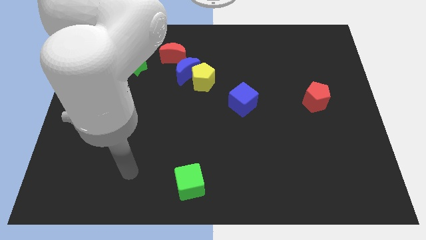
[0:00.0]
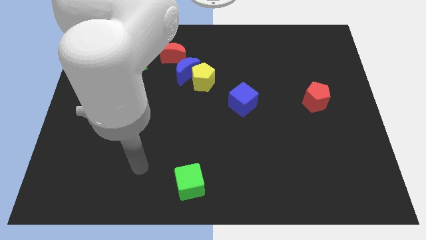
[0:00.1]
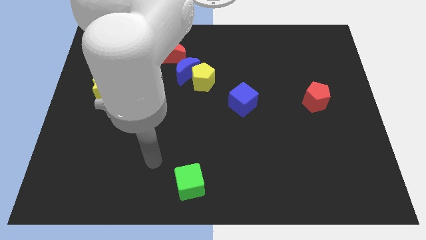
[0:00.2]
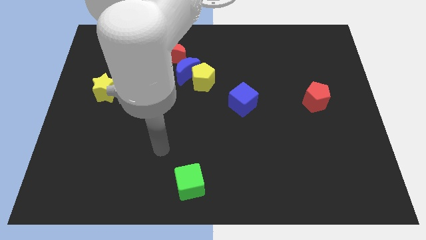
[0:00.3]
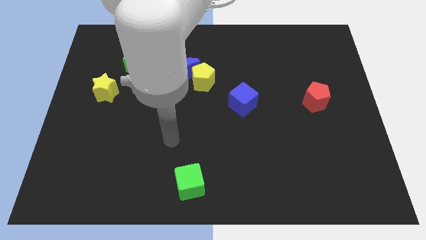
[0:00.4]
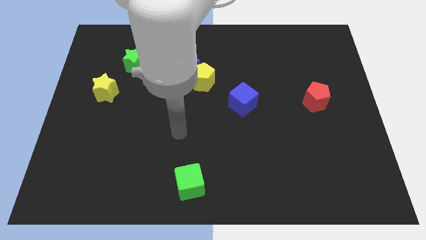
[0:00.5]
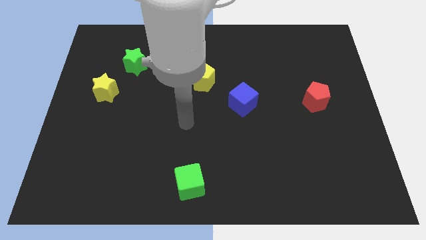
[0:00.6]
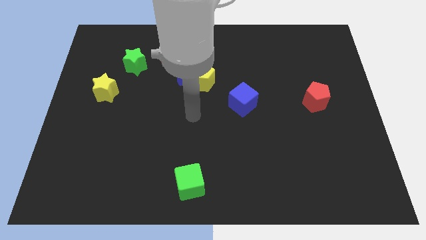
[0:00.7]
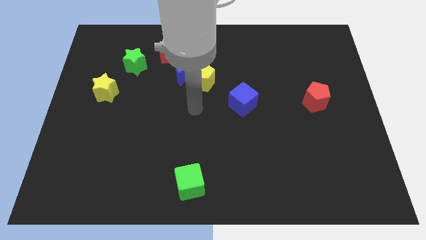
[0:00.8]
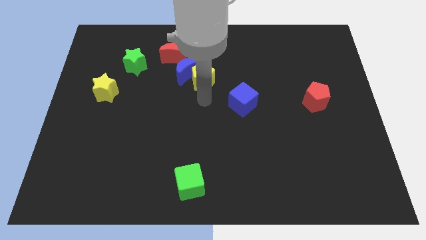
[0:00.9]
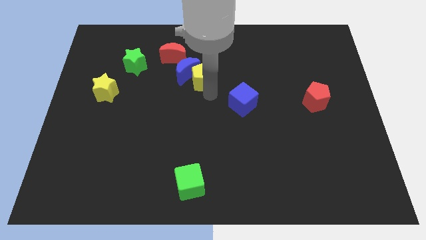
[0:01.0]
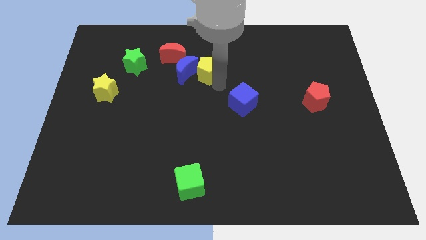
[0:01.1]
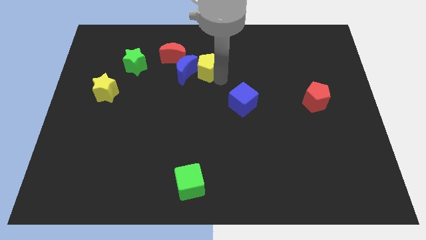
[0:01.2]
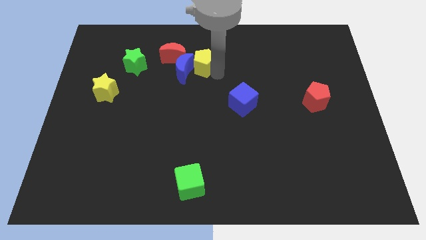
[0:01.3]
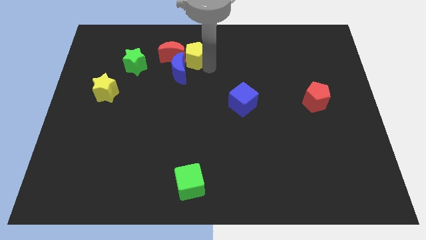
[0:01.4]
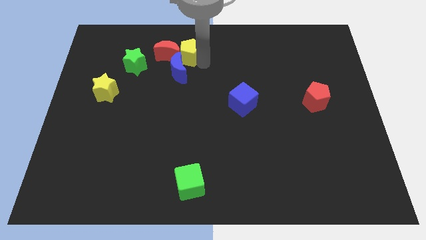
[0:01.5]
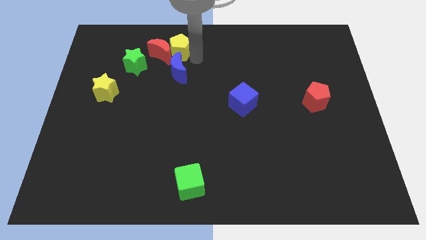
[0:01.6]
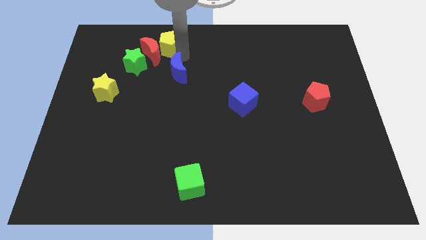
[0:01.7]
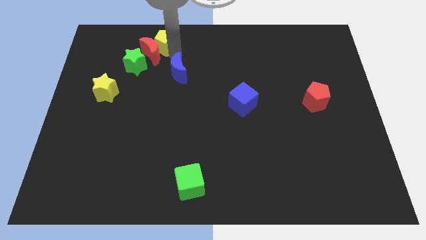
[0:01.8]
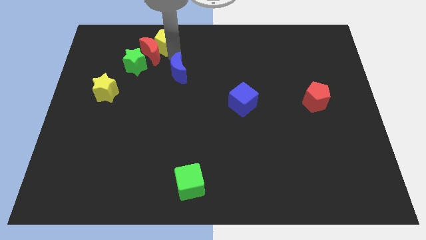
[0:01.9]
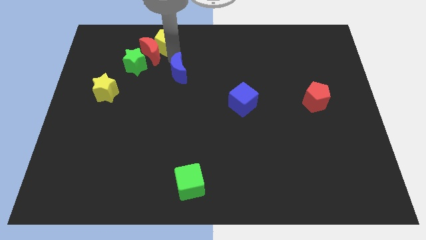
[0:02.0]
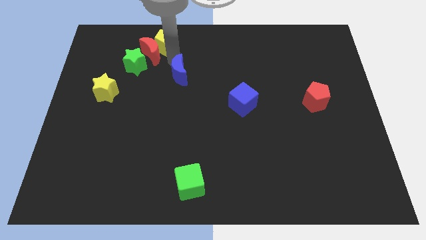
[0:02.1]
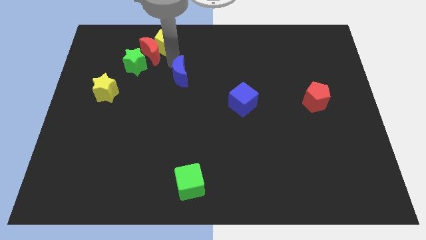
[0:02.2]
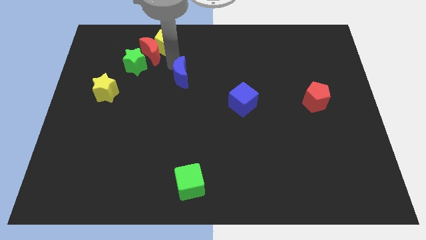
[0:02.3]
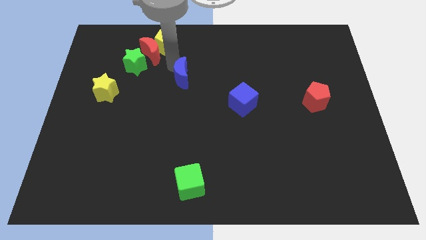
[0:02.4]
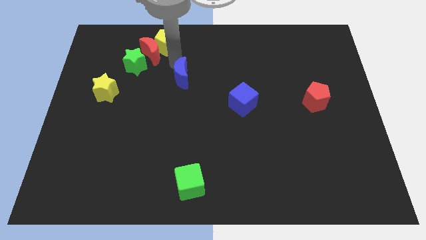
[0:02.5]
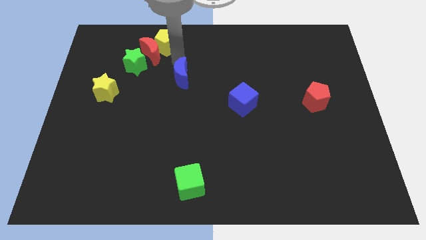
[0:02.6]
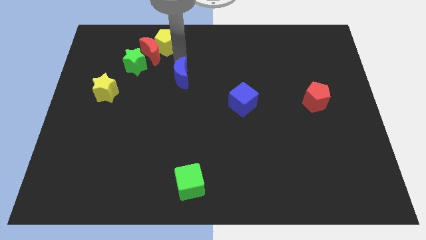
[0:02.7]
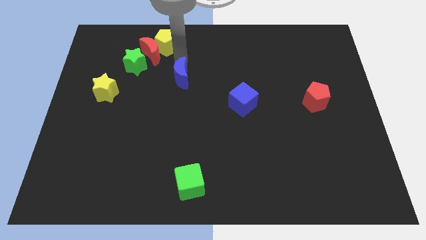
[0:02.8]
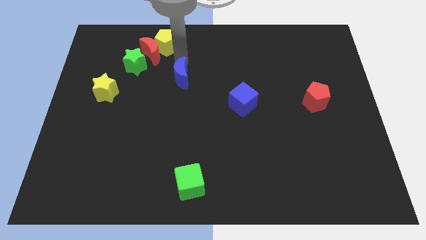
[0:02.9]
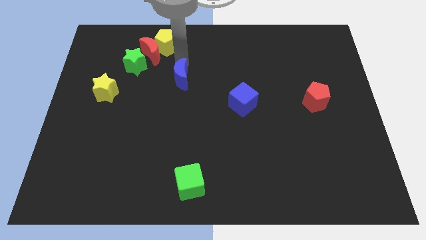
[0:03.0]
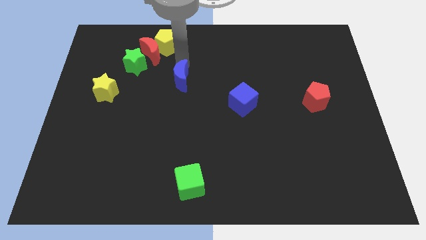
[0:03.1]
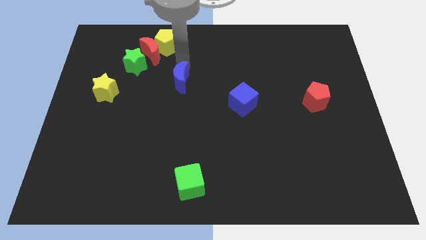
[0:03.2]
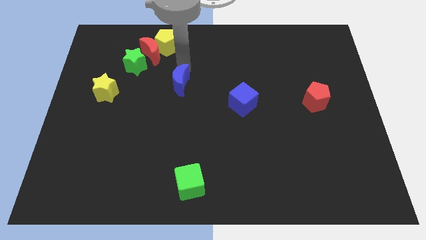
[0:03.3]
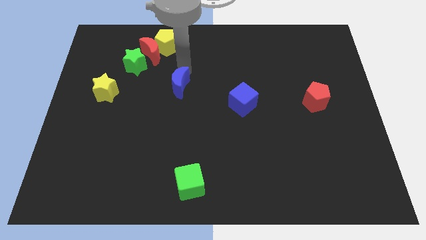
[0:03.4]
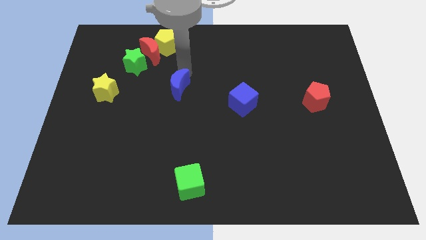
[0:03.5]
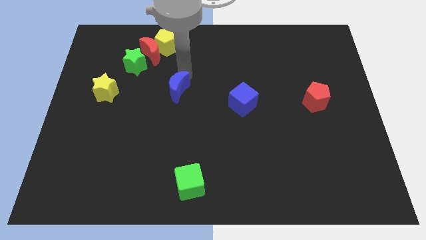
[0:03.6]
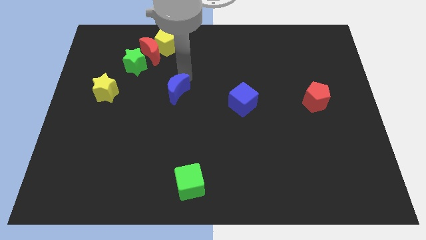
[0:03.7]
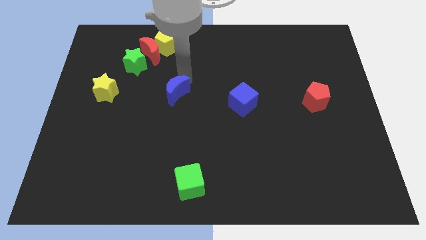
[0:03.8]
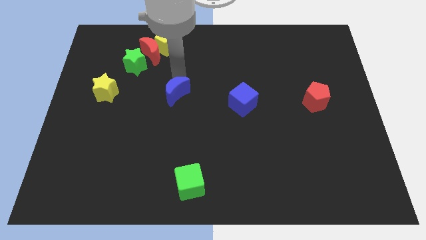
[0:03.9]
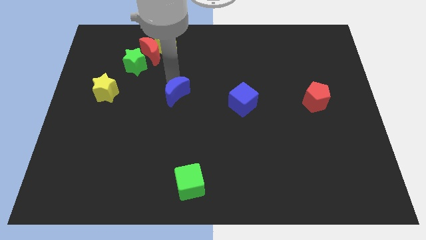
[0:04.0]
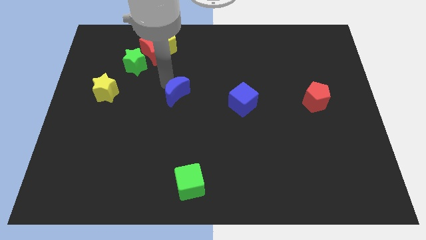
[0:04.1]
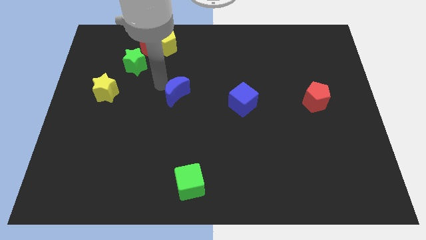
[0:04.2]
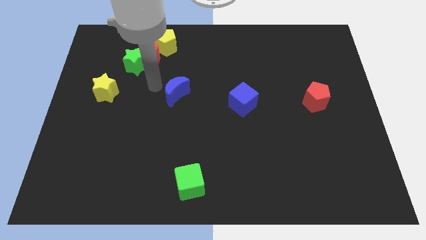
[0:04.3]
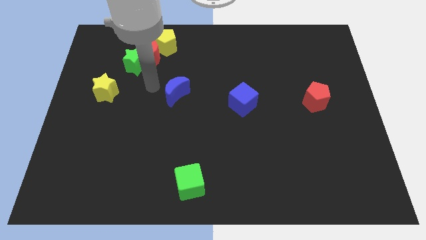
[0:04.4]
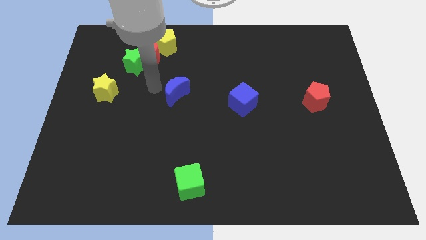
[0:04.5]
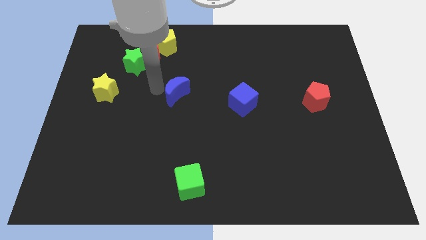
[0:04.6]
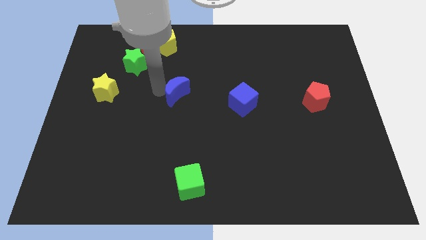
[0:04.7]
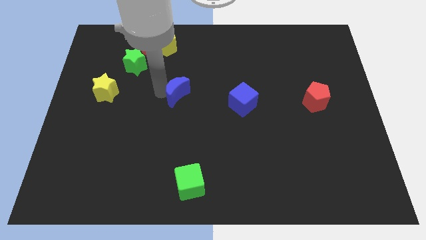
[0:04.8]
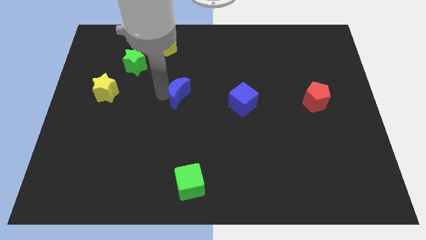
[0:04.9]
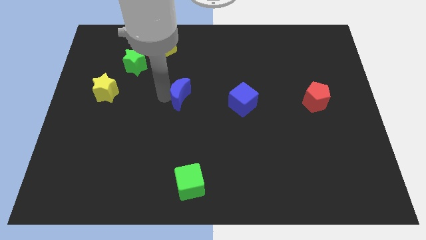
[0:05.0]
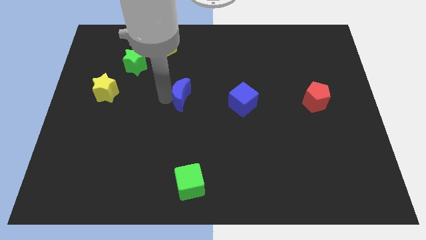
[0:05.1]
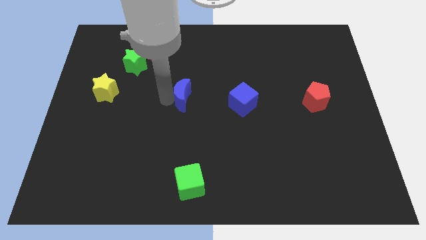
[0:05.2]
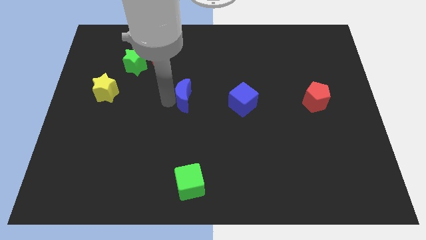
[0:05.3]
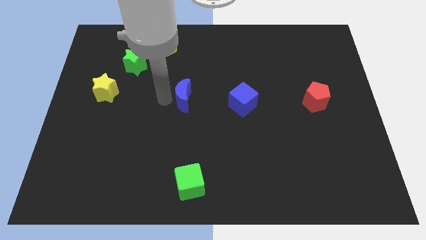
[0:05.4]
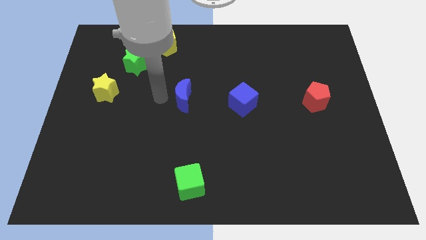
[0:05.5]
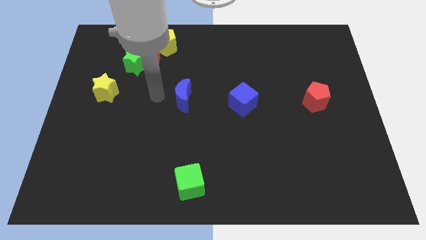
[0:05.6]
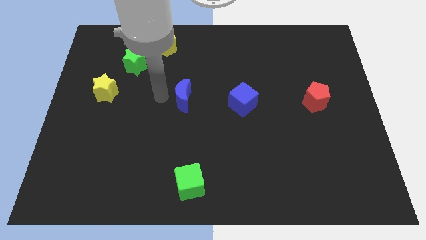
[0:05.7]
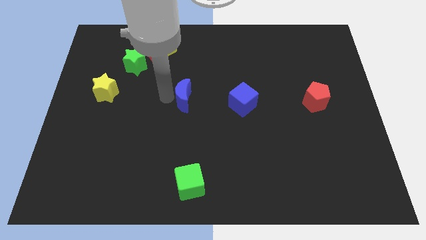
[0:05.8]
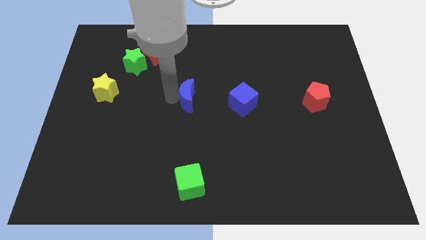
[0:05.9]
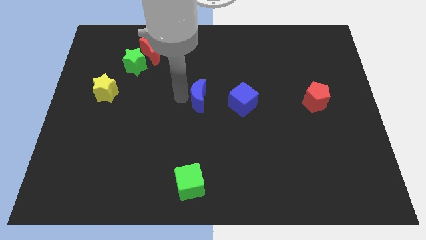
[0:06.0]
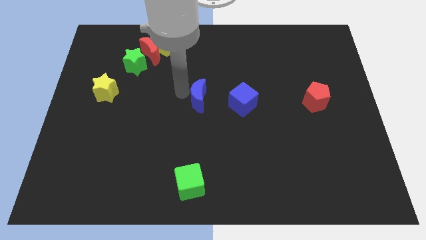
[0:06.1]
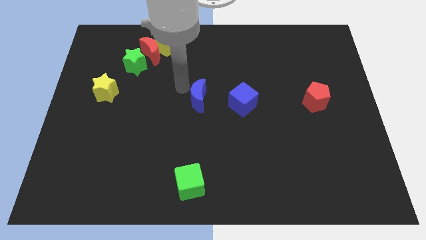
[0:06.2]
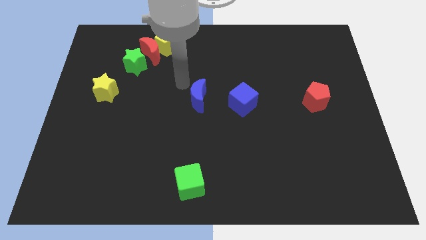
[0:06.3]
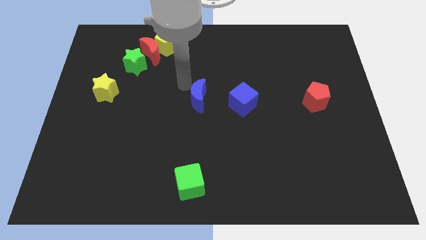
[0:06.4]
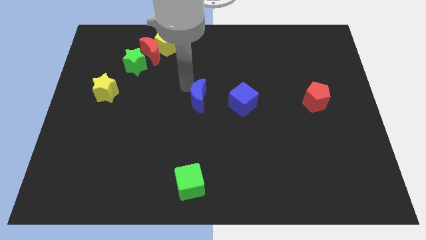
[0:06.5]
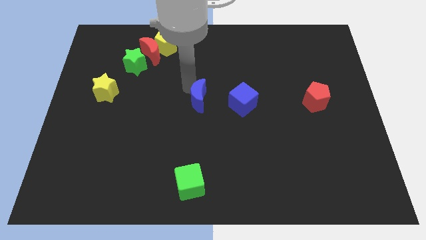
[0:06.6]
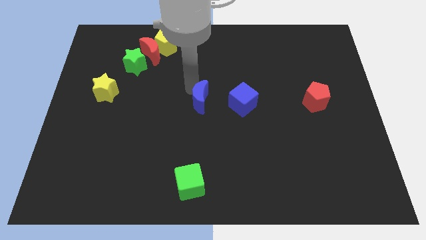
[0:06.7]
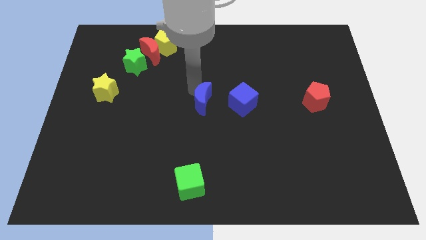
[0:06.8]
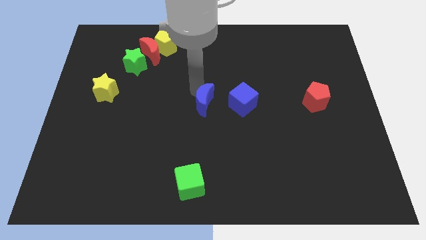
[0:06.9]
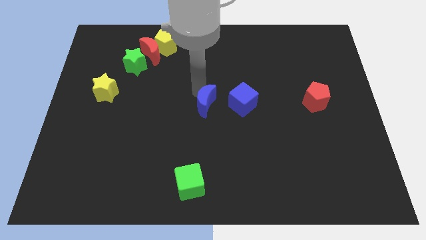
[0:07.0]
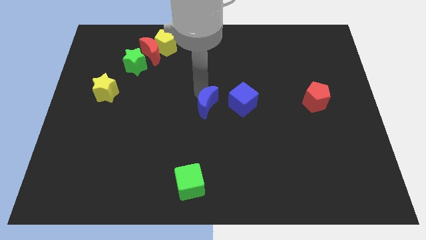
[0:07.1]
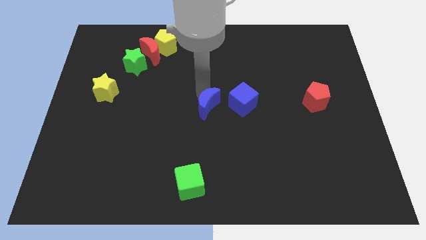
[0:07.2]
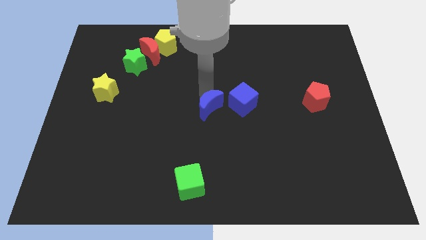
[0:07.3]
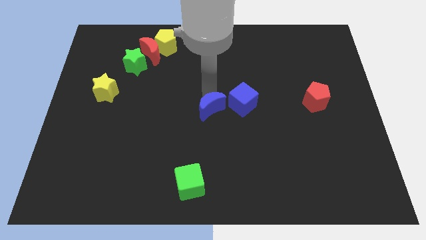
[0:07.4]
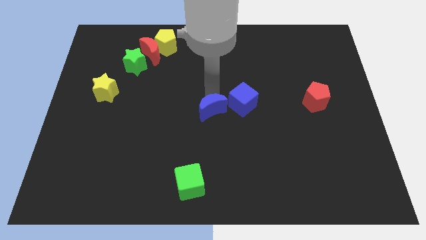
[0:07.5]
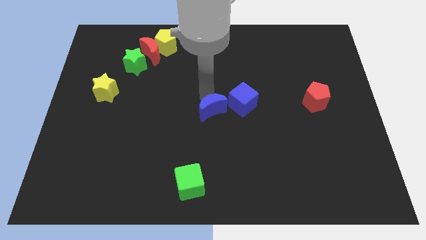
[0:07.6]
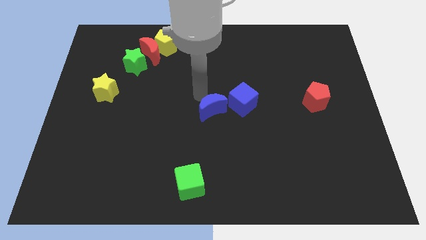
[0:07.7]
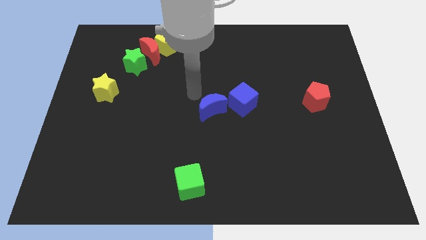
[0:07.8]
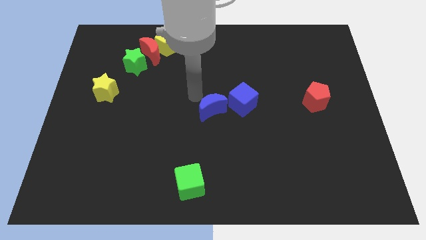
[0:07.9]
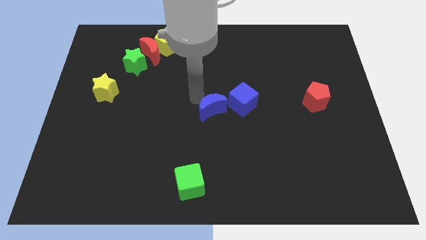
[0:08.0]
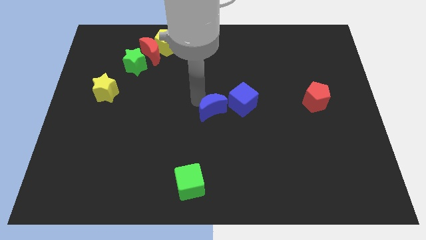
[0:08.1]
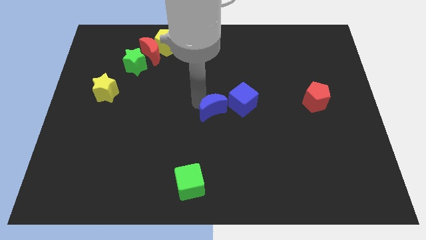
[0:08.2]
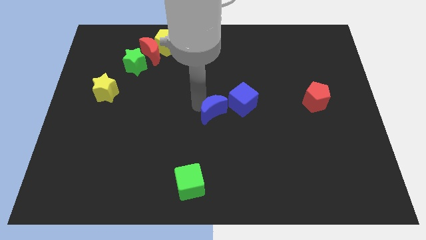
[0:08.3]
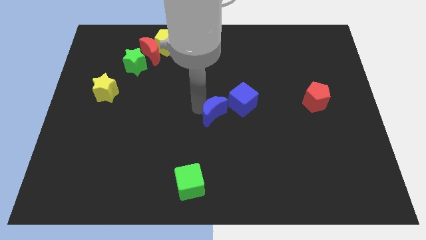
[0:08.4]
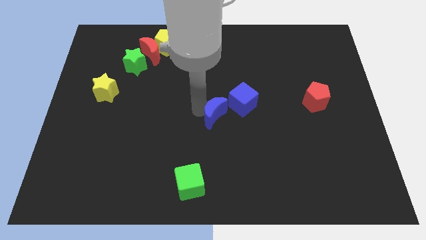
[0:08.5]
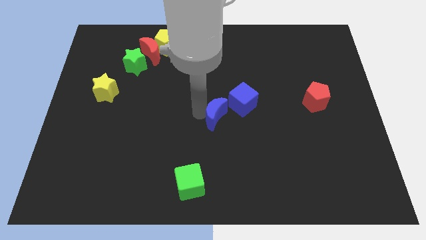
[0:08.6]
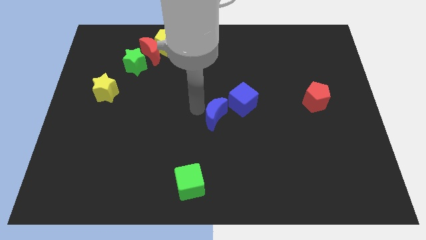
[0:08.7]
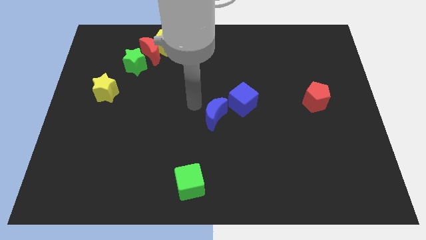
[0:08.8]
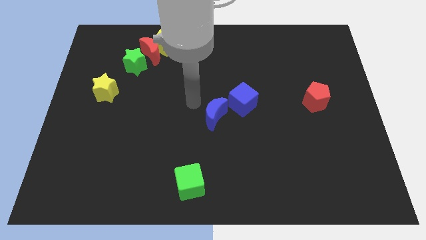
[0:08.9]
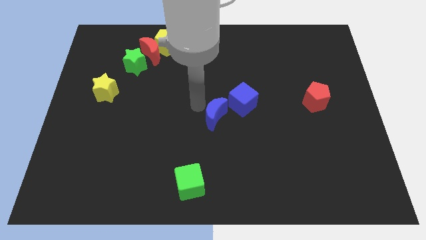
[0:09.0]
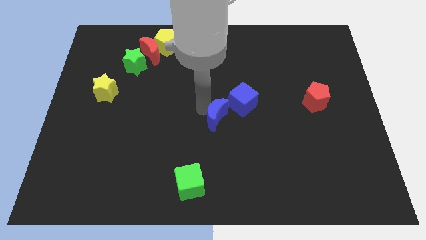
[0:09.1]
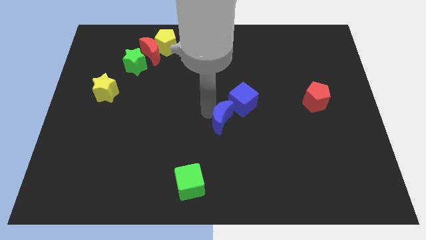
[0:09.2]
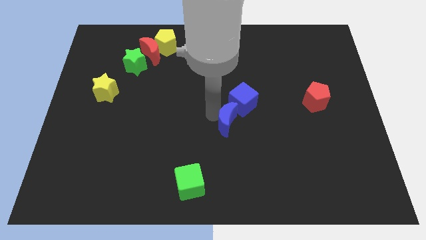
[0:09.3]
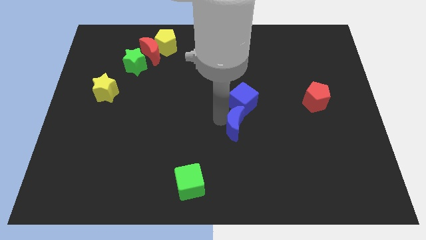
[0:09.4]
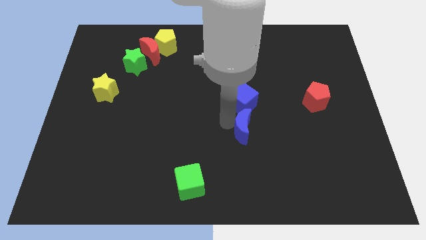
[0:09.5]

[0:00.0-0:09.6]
push the blue moon downwards and then to the right
